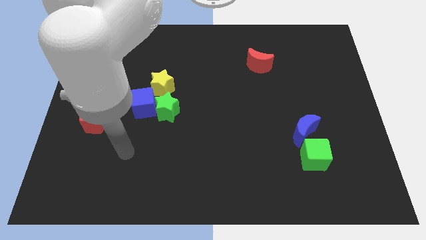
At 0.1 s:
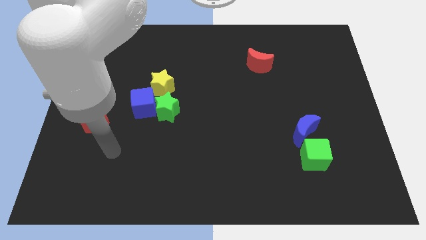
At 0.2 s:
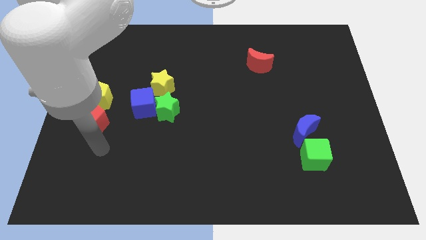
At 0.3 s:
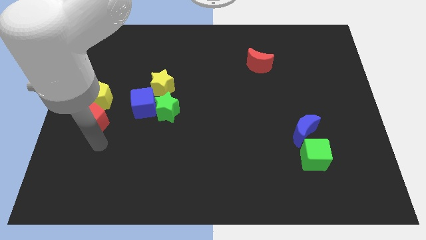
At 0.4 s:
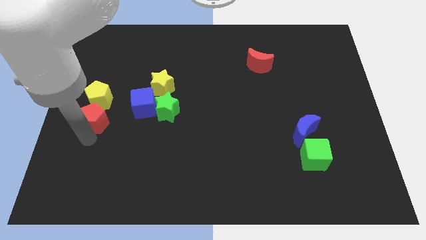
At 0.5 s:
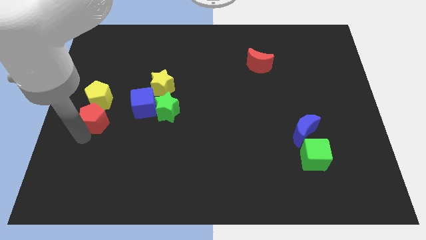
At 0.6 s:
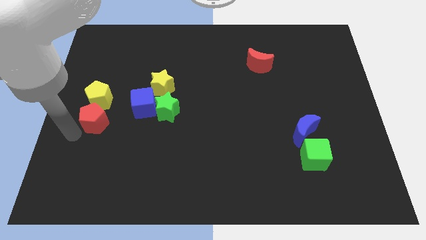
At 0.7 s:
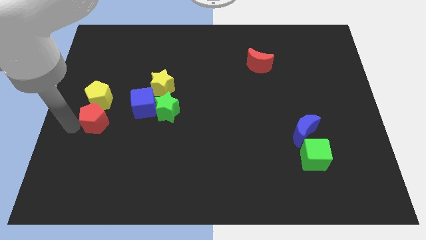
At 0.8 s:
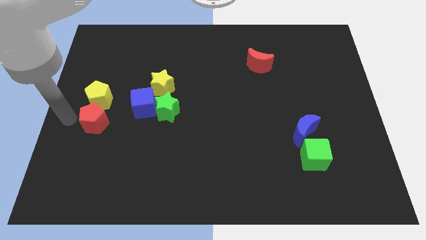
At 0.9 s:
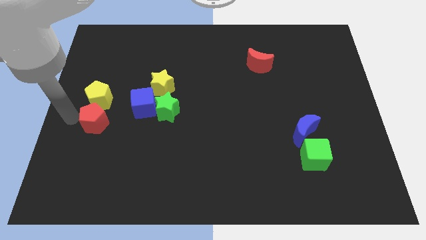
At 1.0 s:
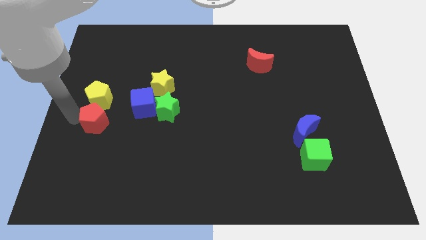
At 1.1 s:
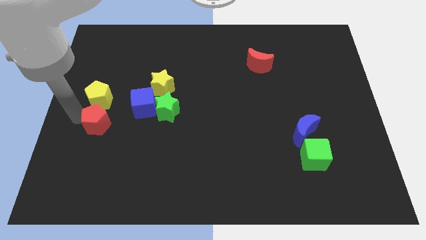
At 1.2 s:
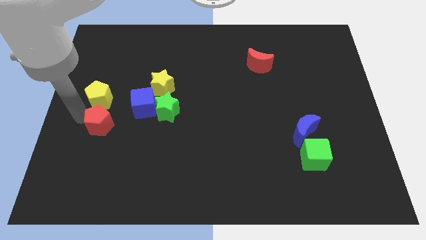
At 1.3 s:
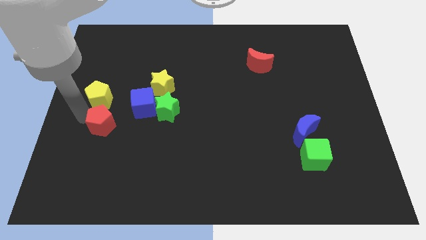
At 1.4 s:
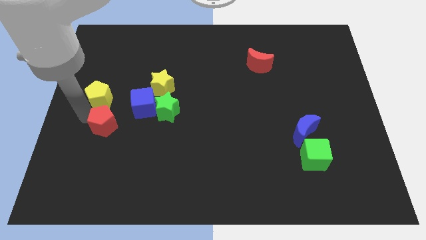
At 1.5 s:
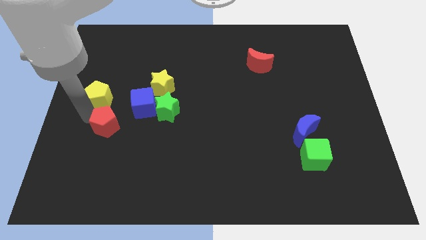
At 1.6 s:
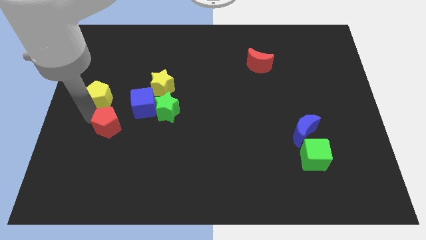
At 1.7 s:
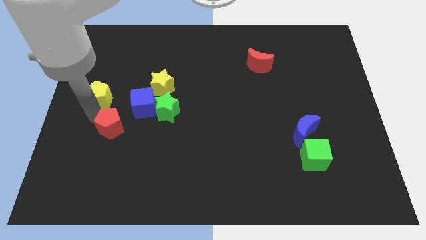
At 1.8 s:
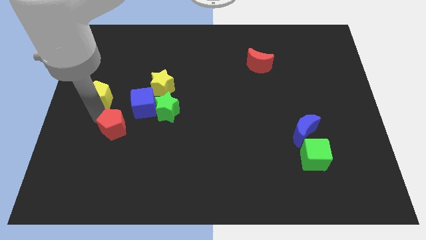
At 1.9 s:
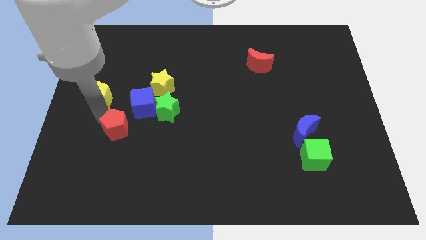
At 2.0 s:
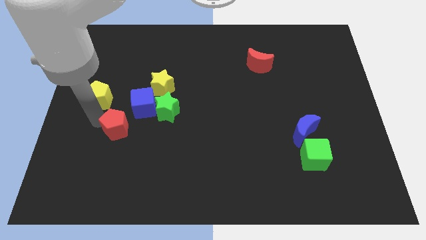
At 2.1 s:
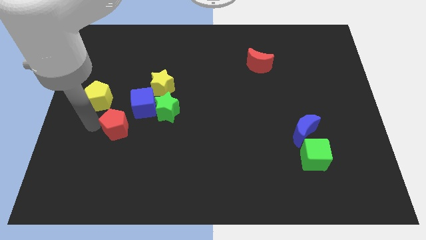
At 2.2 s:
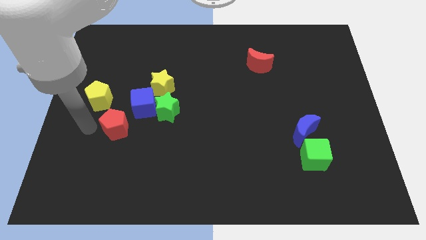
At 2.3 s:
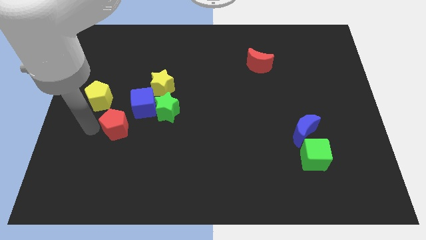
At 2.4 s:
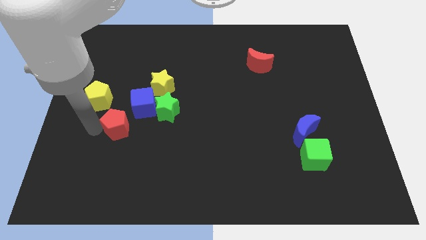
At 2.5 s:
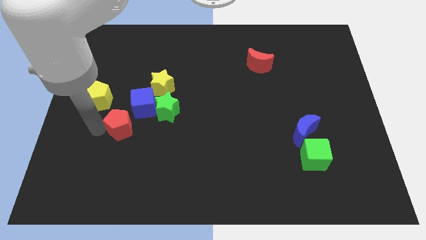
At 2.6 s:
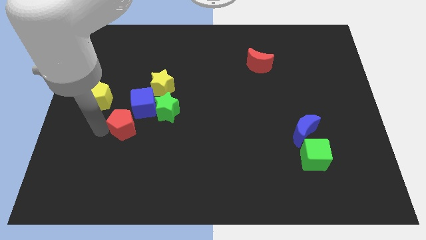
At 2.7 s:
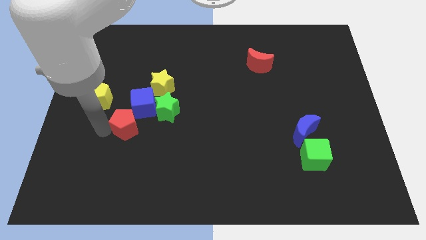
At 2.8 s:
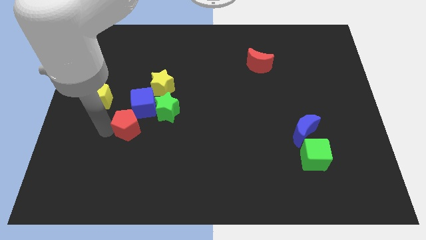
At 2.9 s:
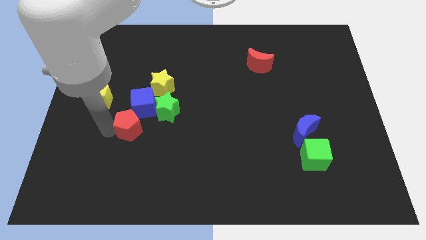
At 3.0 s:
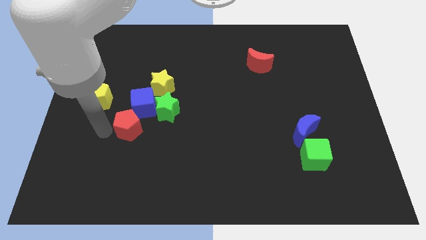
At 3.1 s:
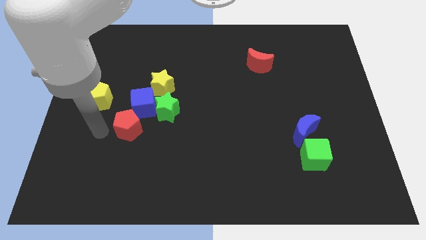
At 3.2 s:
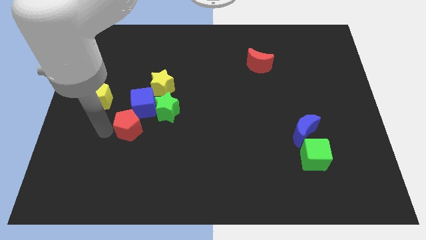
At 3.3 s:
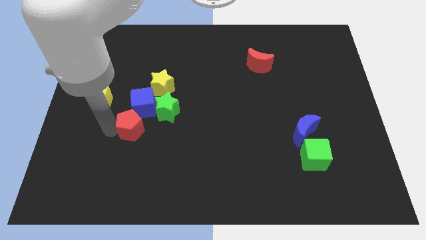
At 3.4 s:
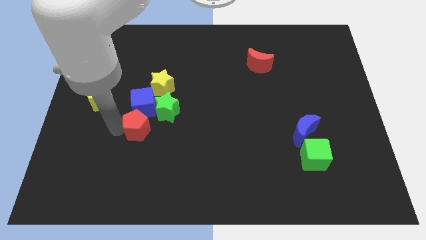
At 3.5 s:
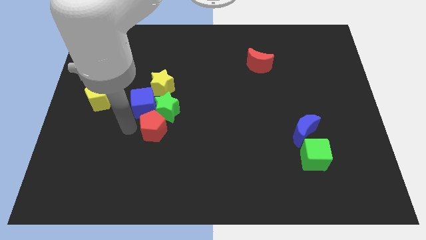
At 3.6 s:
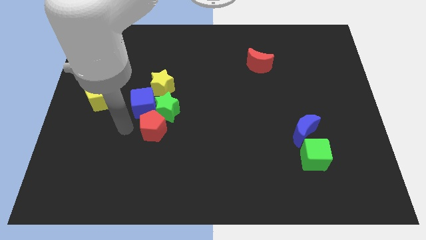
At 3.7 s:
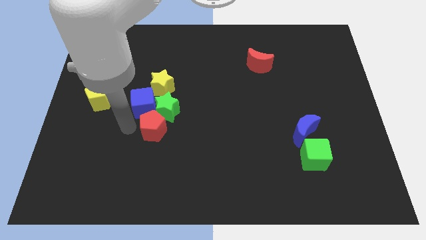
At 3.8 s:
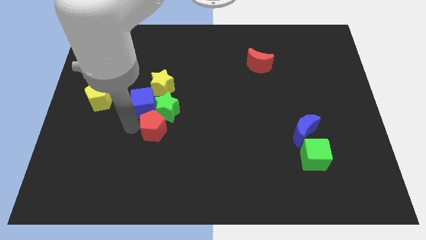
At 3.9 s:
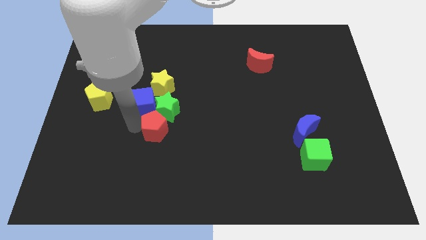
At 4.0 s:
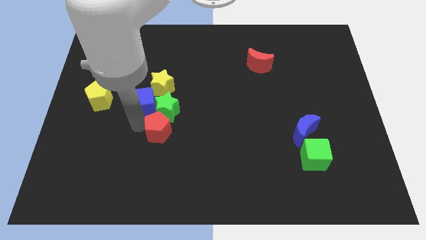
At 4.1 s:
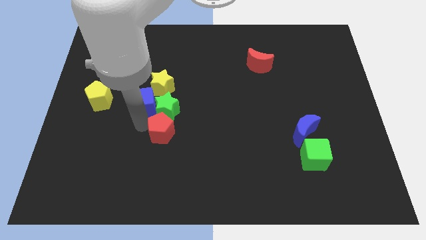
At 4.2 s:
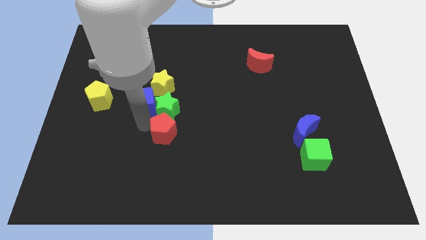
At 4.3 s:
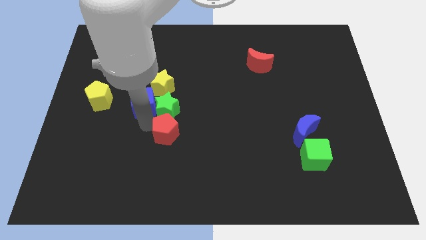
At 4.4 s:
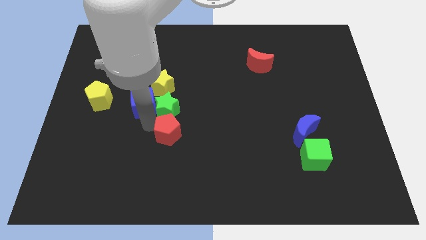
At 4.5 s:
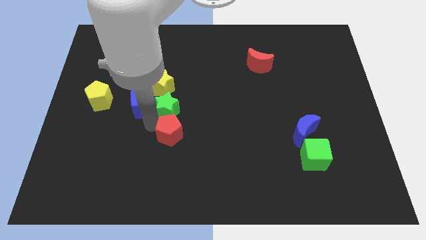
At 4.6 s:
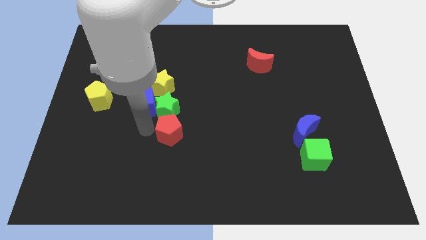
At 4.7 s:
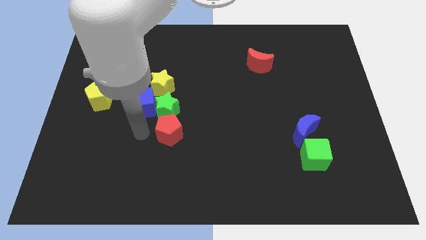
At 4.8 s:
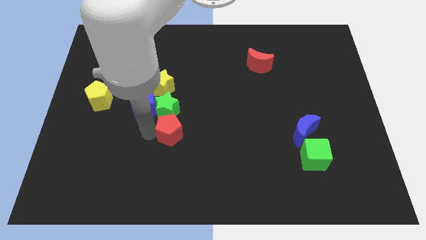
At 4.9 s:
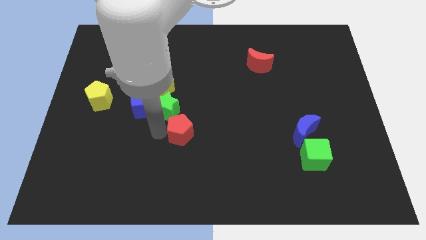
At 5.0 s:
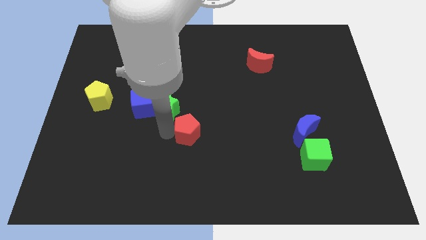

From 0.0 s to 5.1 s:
move the red pentagon right

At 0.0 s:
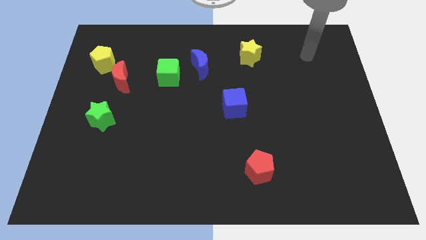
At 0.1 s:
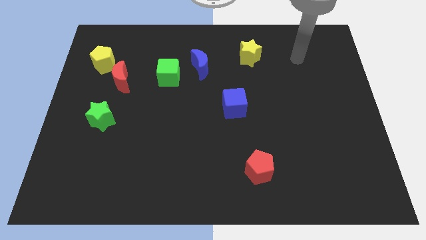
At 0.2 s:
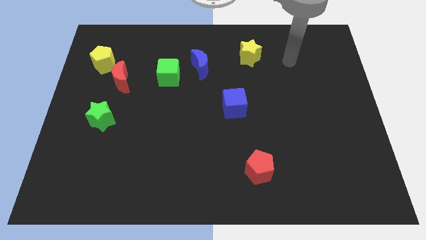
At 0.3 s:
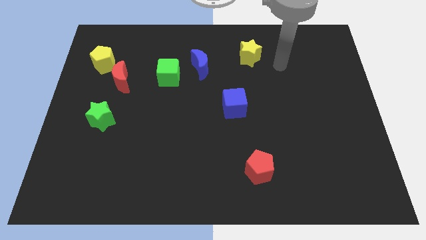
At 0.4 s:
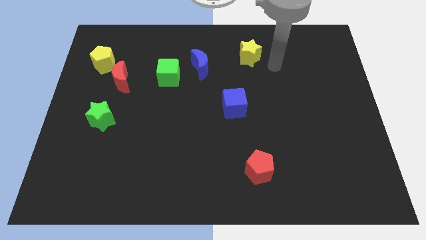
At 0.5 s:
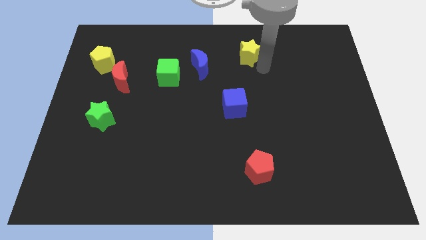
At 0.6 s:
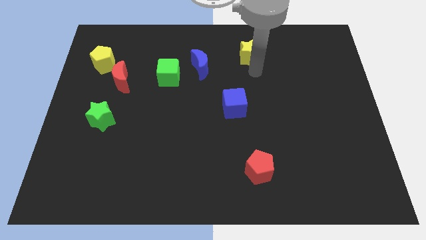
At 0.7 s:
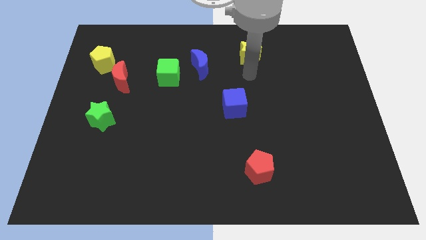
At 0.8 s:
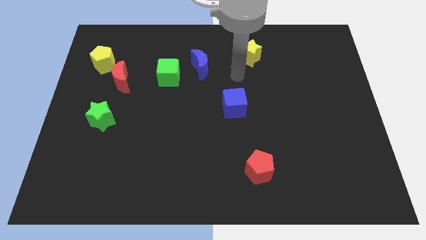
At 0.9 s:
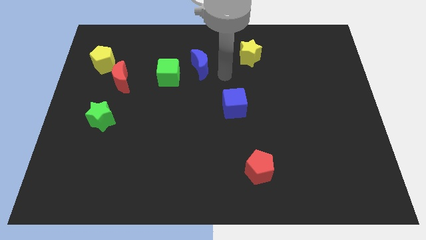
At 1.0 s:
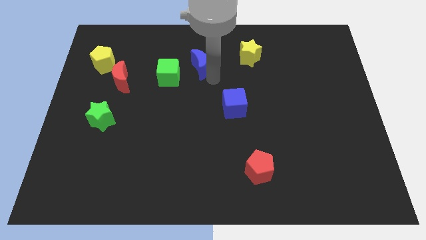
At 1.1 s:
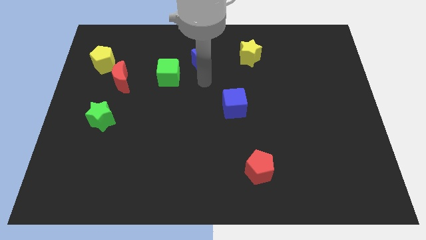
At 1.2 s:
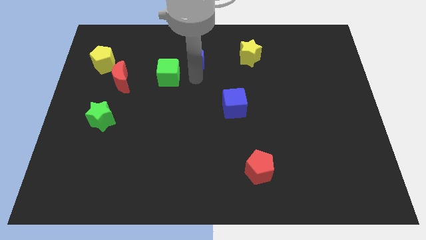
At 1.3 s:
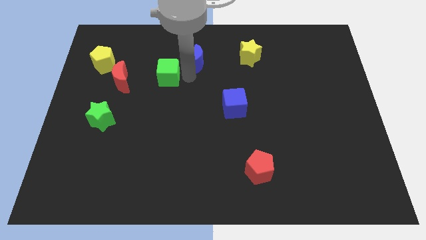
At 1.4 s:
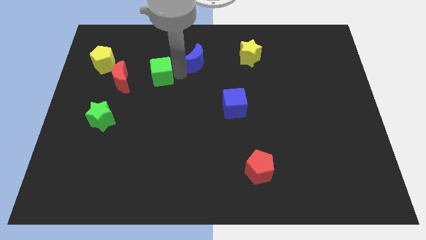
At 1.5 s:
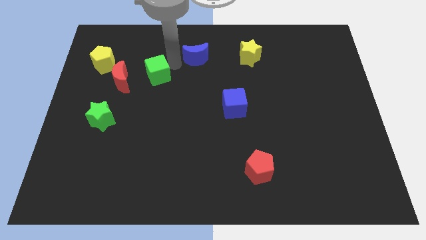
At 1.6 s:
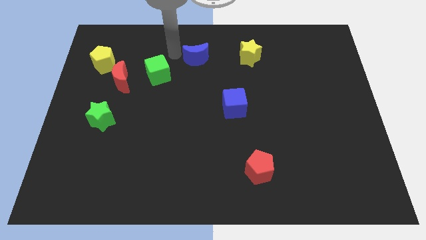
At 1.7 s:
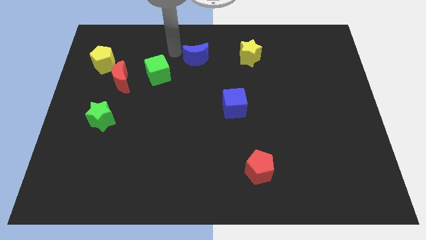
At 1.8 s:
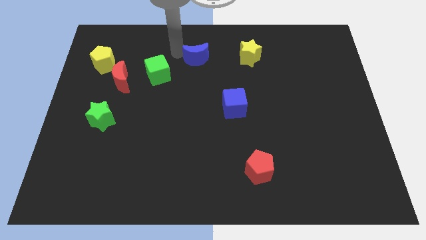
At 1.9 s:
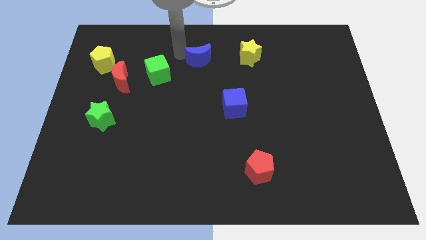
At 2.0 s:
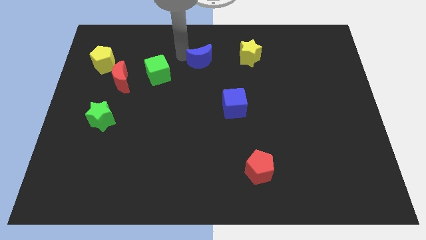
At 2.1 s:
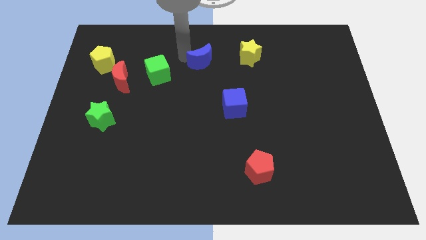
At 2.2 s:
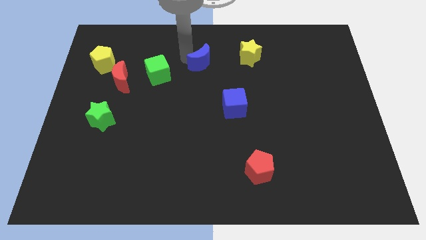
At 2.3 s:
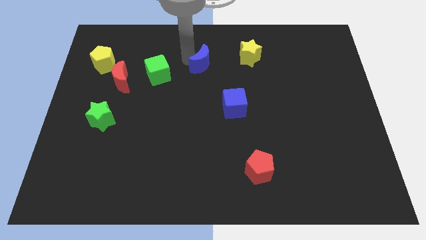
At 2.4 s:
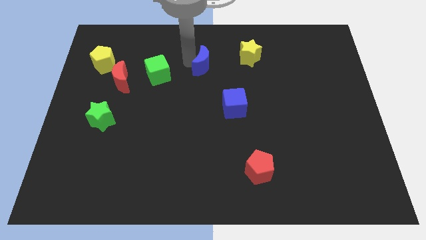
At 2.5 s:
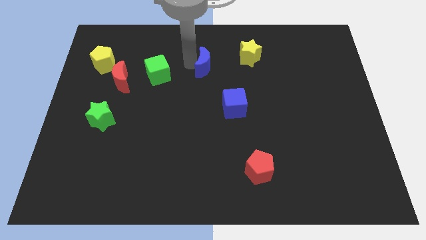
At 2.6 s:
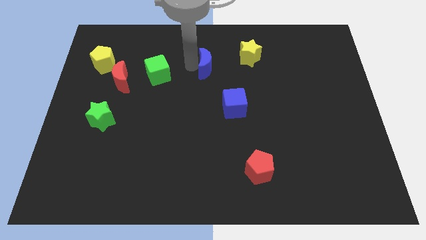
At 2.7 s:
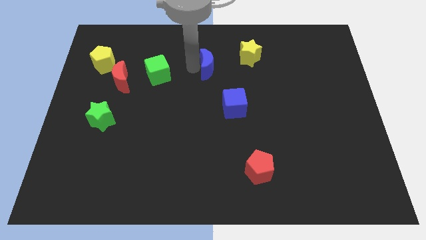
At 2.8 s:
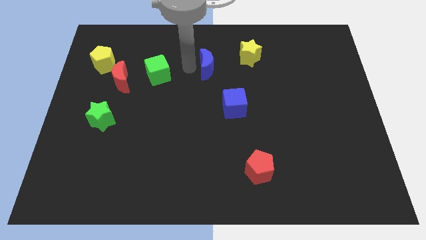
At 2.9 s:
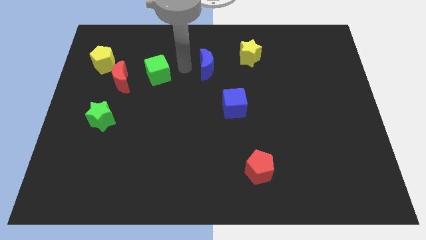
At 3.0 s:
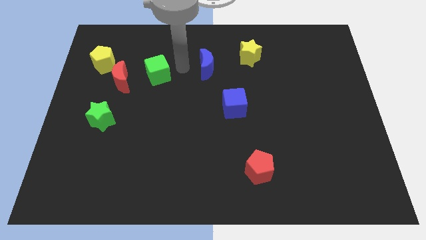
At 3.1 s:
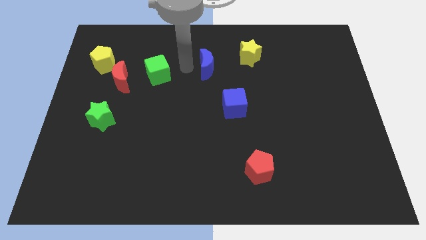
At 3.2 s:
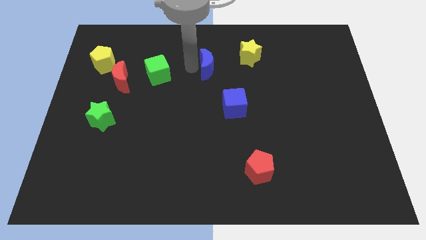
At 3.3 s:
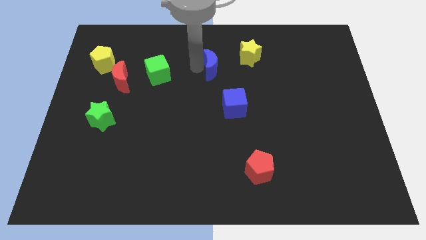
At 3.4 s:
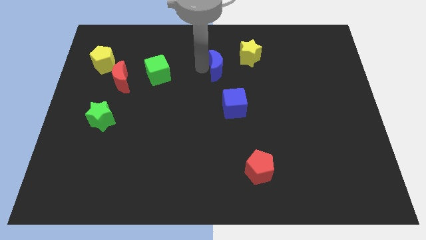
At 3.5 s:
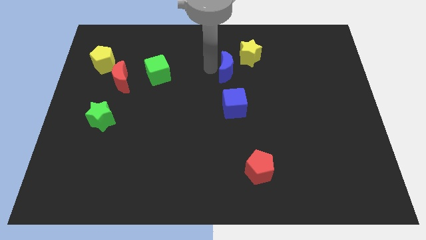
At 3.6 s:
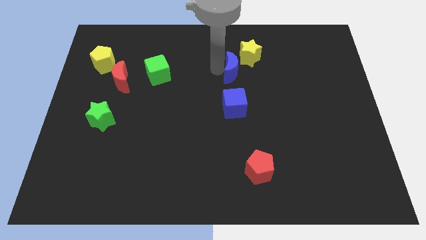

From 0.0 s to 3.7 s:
slightly push the blue moon to the right
